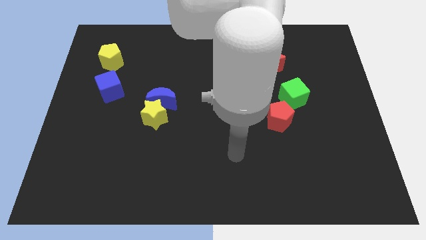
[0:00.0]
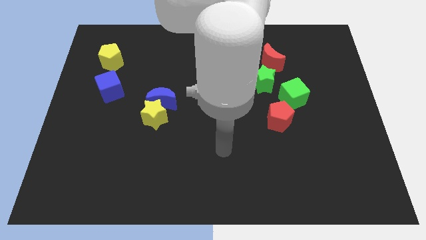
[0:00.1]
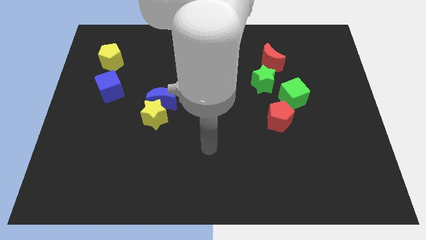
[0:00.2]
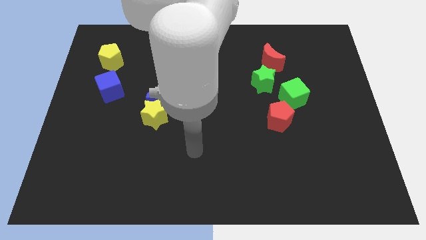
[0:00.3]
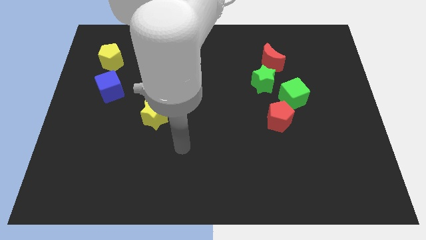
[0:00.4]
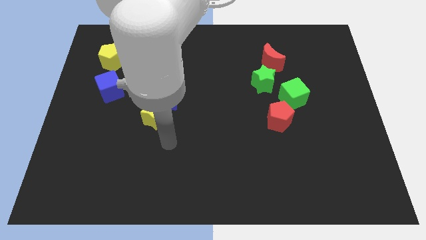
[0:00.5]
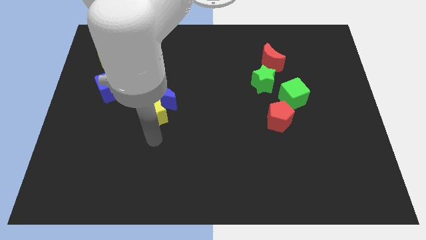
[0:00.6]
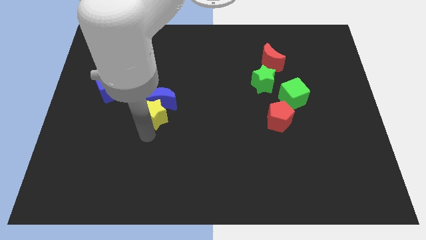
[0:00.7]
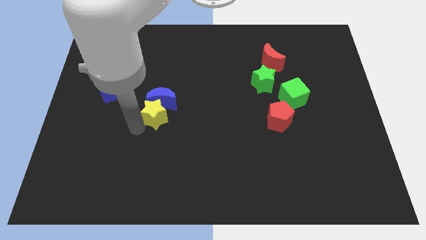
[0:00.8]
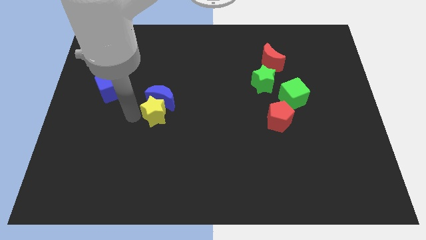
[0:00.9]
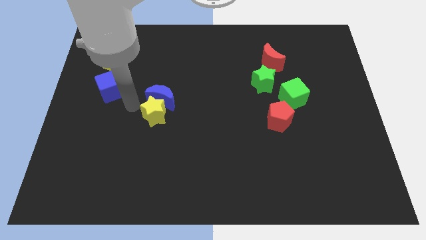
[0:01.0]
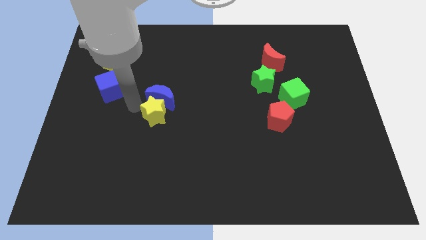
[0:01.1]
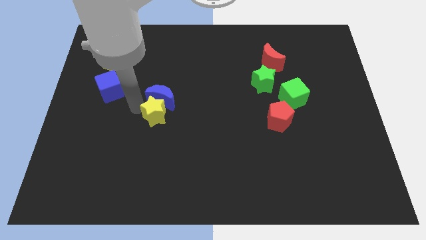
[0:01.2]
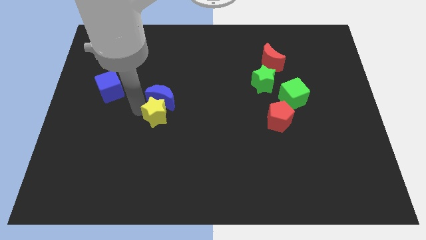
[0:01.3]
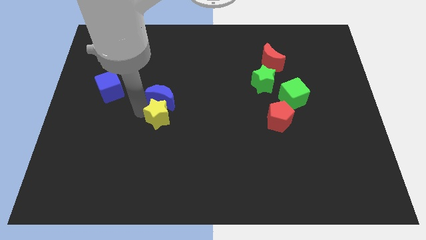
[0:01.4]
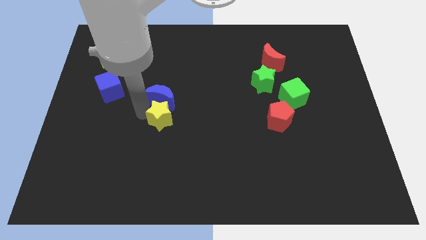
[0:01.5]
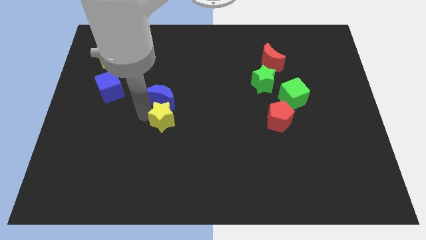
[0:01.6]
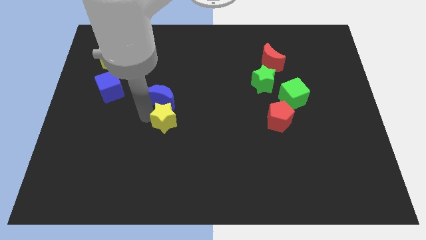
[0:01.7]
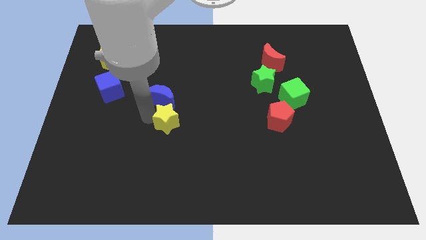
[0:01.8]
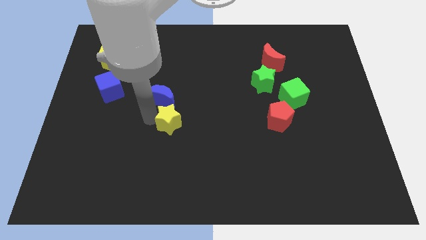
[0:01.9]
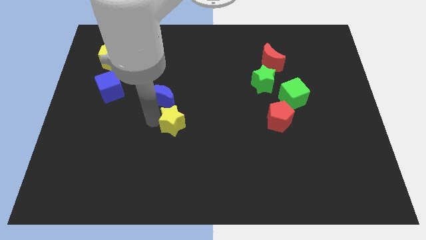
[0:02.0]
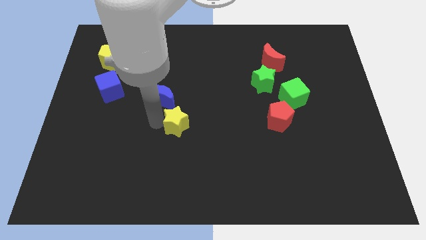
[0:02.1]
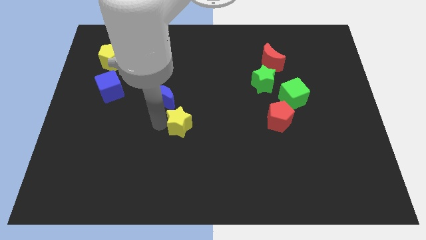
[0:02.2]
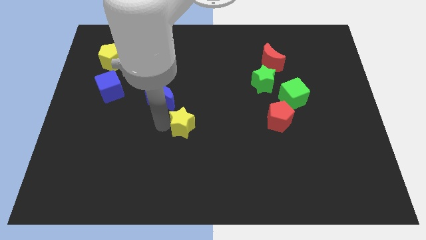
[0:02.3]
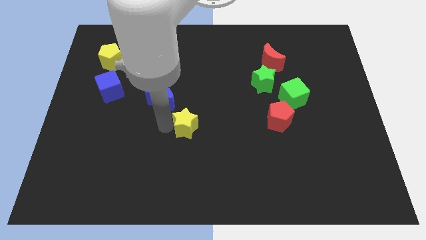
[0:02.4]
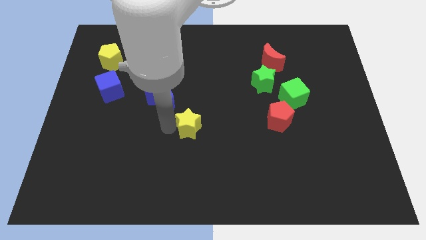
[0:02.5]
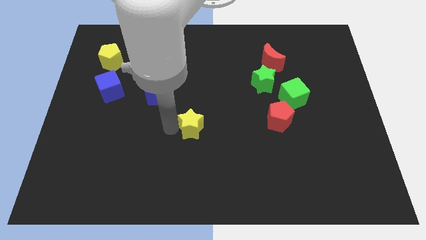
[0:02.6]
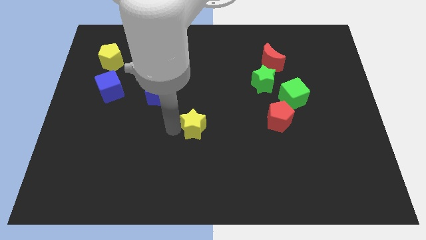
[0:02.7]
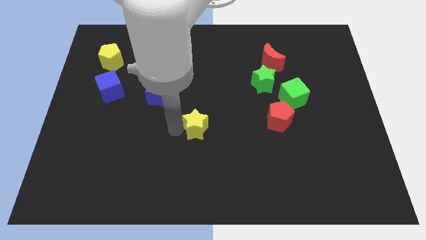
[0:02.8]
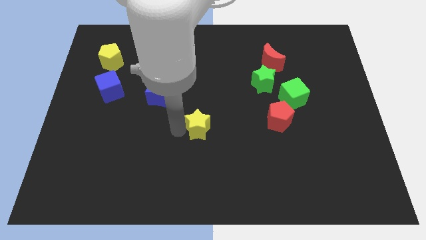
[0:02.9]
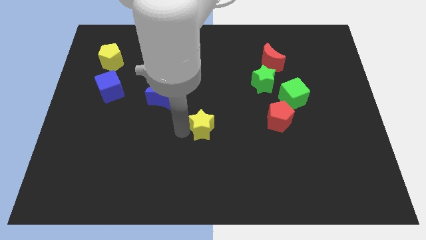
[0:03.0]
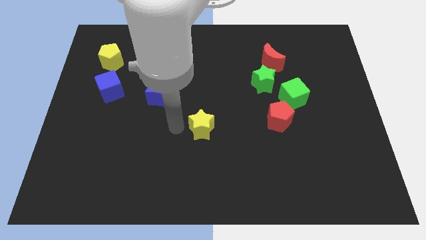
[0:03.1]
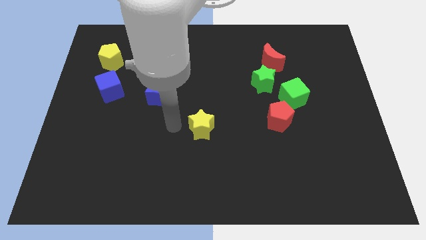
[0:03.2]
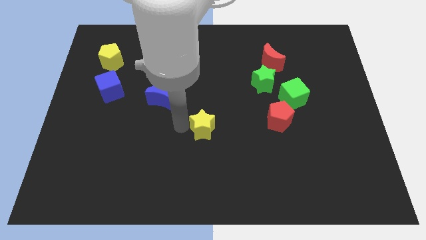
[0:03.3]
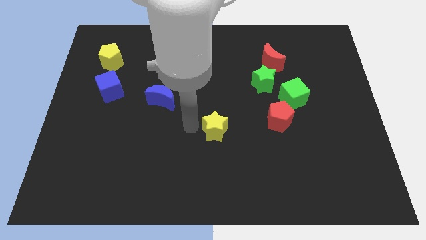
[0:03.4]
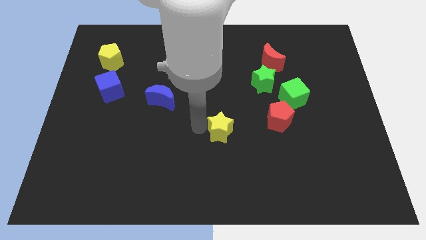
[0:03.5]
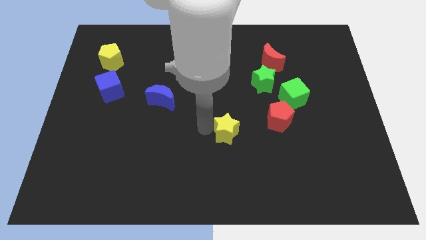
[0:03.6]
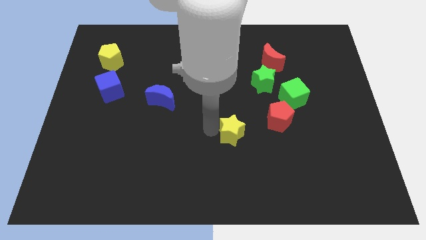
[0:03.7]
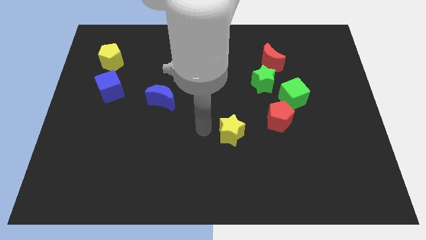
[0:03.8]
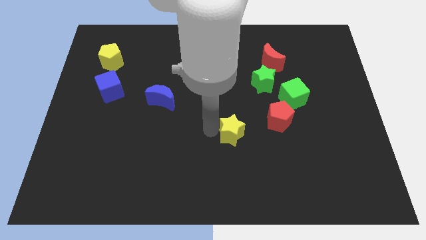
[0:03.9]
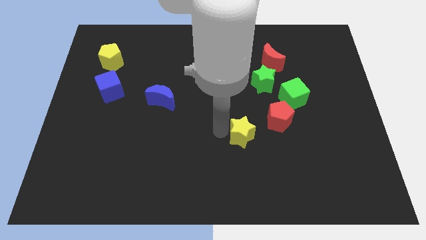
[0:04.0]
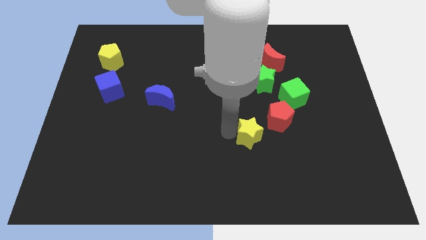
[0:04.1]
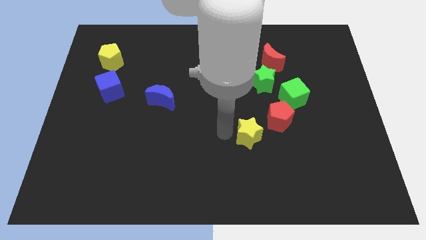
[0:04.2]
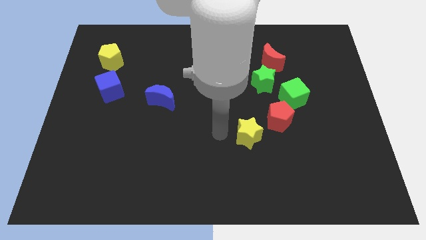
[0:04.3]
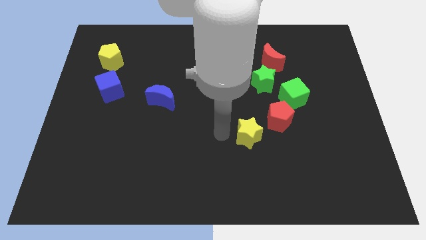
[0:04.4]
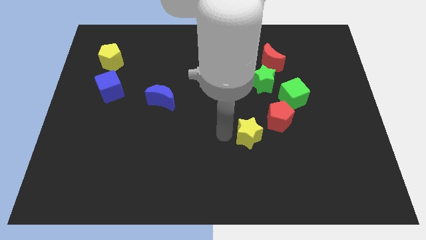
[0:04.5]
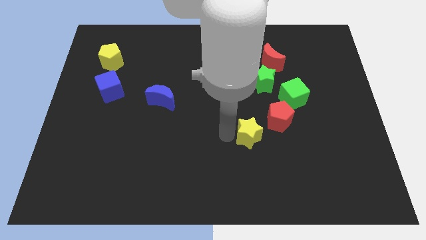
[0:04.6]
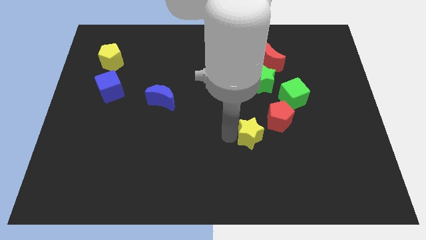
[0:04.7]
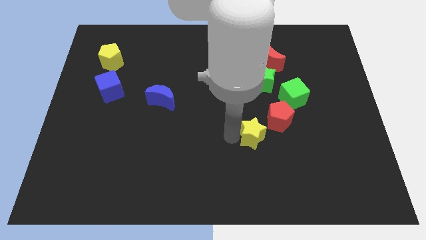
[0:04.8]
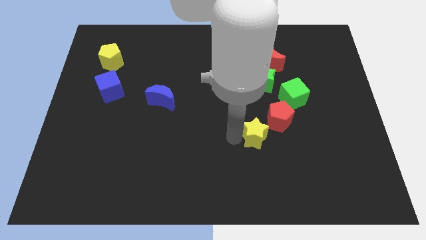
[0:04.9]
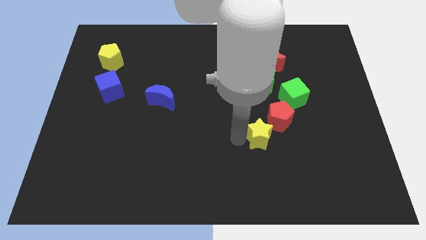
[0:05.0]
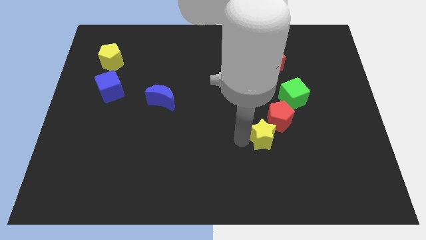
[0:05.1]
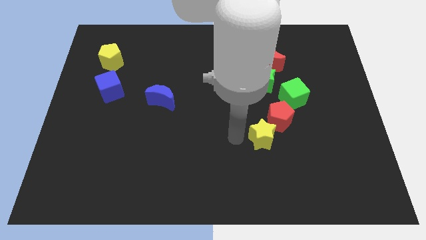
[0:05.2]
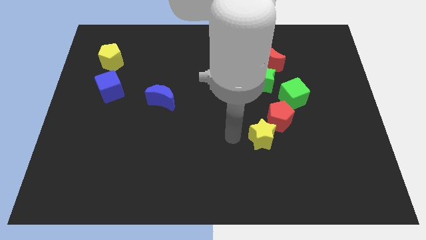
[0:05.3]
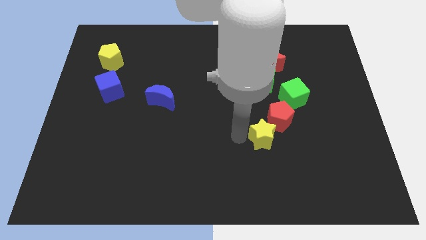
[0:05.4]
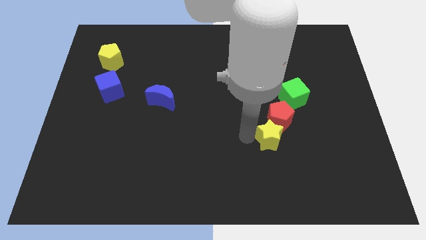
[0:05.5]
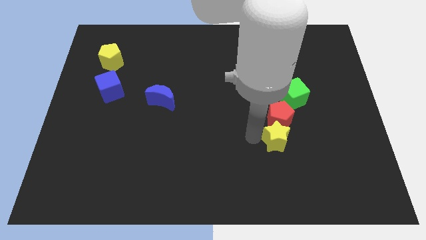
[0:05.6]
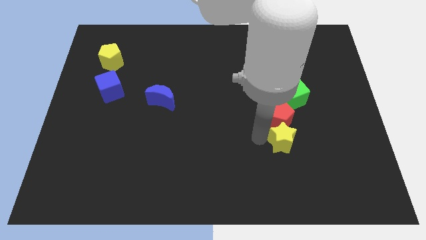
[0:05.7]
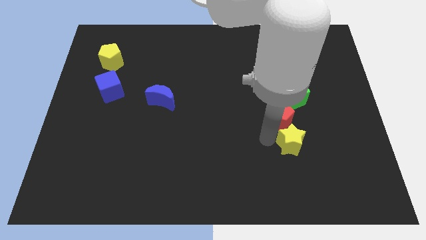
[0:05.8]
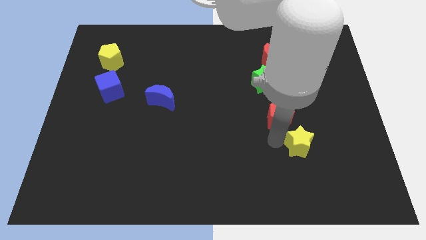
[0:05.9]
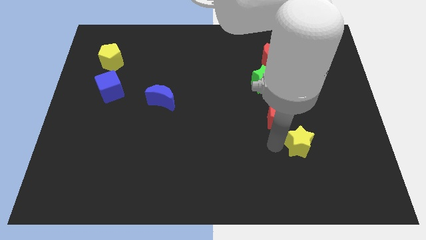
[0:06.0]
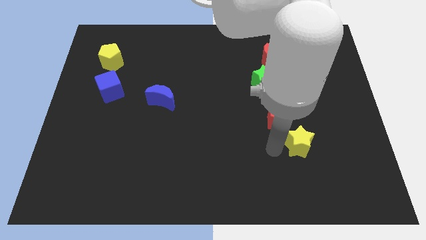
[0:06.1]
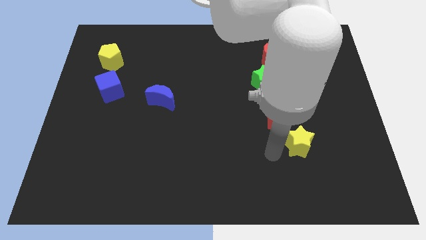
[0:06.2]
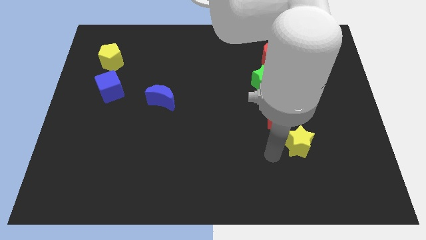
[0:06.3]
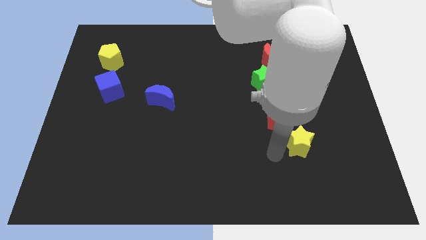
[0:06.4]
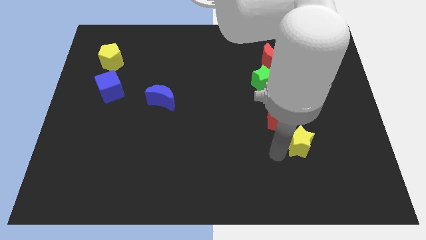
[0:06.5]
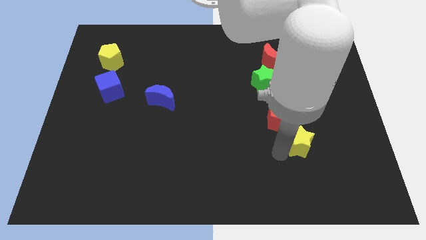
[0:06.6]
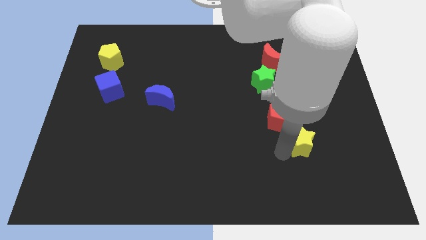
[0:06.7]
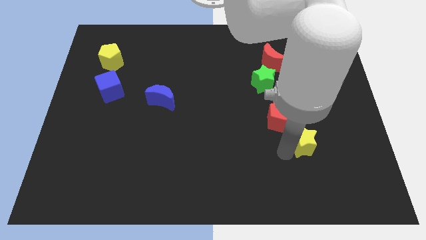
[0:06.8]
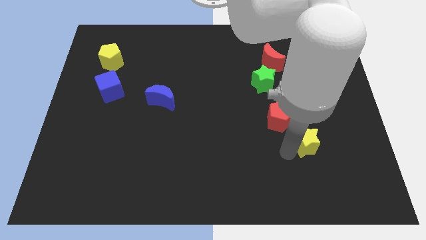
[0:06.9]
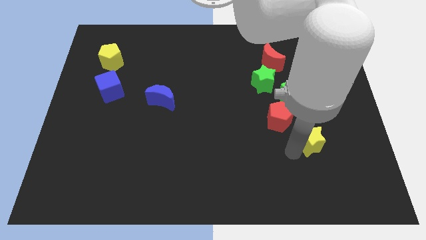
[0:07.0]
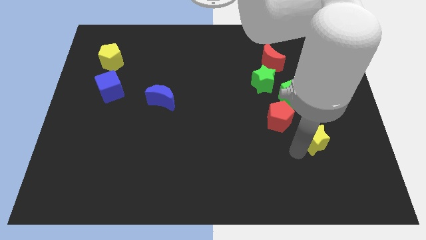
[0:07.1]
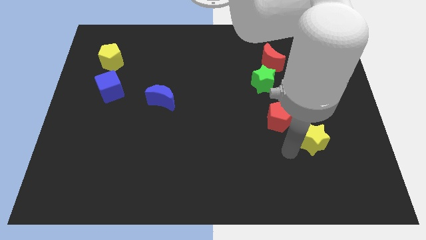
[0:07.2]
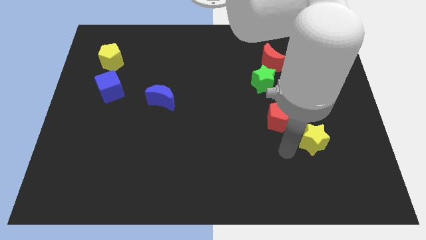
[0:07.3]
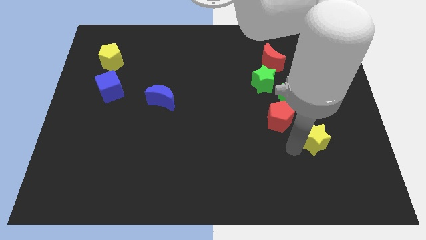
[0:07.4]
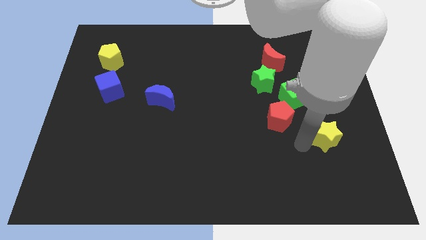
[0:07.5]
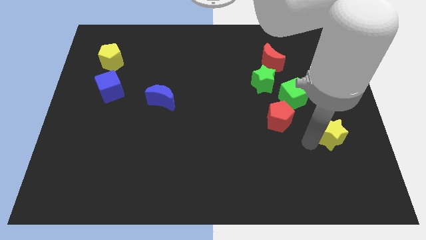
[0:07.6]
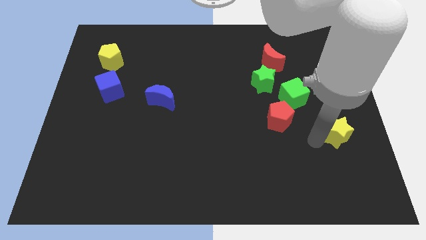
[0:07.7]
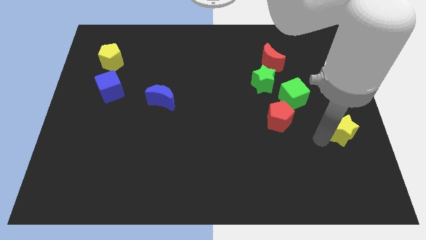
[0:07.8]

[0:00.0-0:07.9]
push the yellow star to the center right
